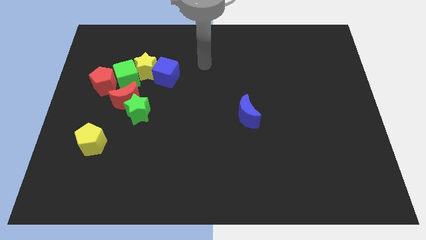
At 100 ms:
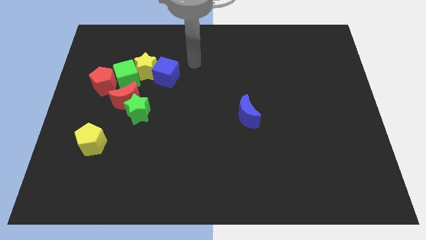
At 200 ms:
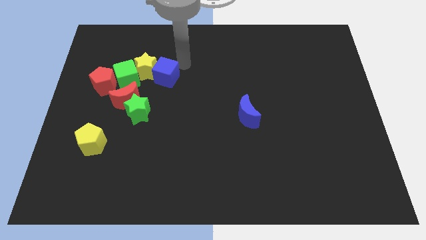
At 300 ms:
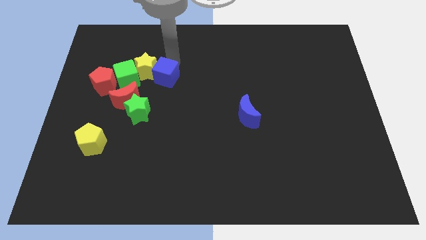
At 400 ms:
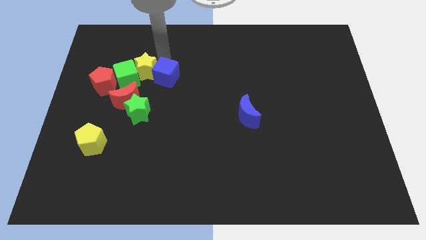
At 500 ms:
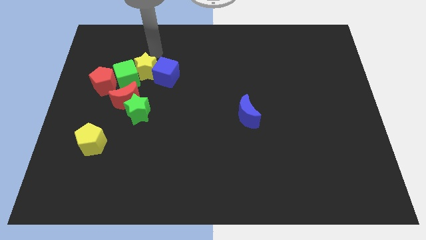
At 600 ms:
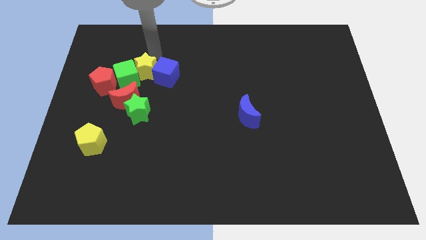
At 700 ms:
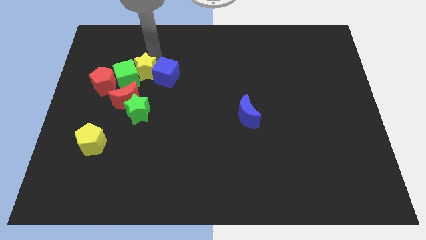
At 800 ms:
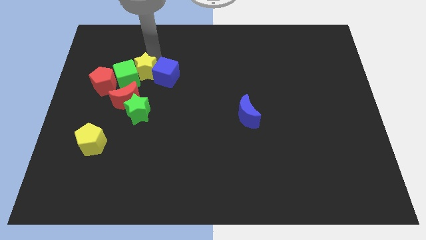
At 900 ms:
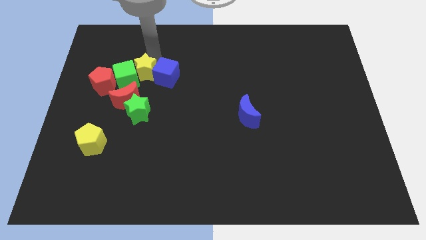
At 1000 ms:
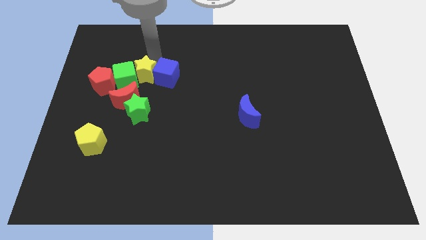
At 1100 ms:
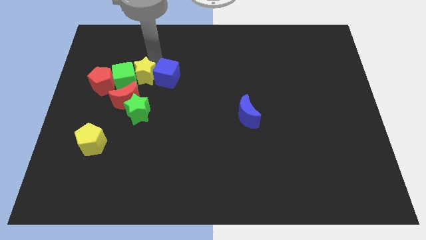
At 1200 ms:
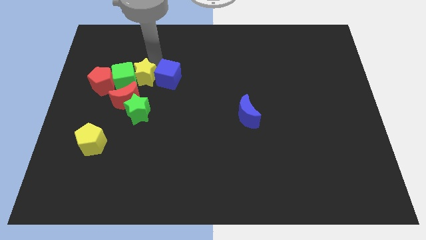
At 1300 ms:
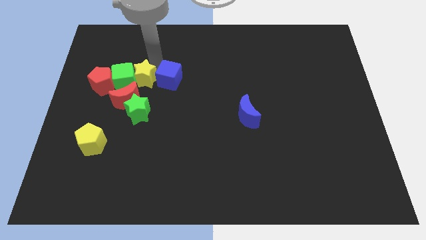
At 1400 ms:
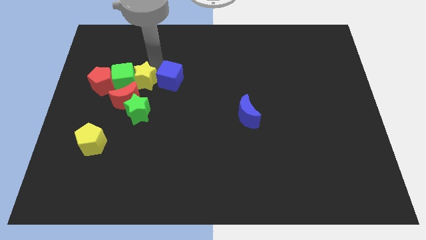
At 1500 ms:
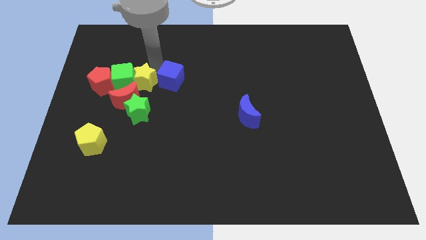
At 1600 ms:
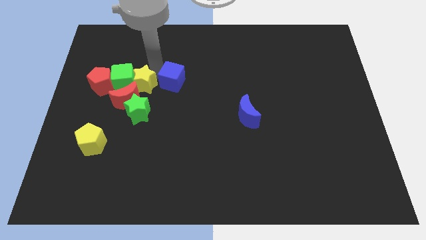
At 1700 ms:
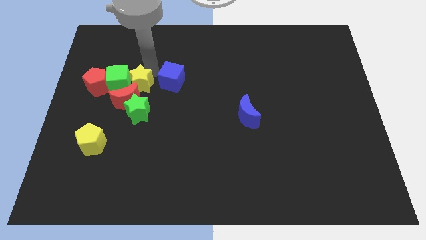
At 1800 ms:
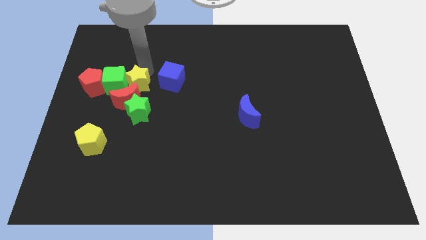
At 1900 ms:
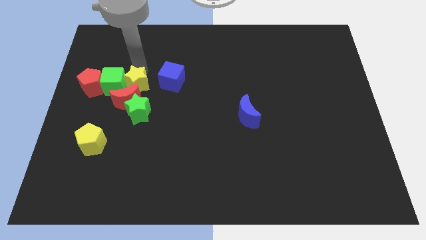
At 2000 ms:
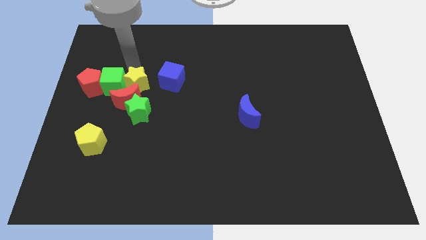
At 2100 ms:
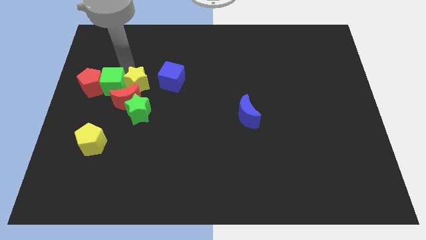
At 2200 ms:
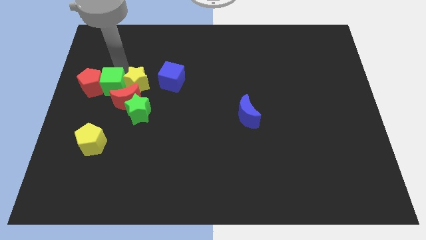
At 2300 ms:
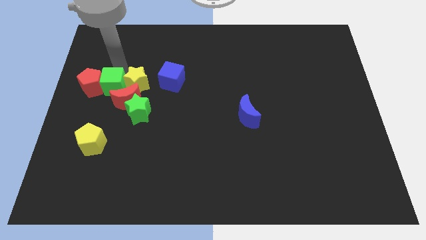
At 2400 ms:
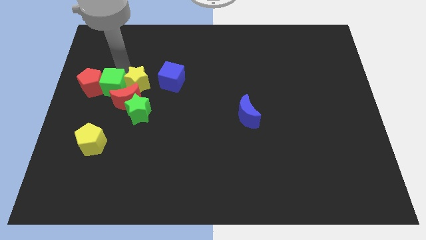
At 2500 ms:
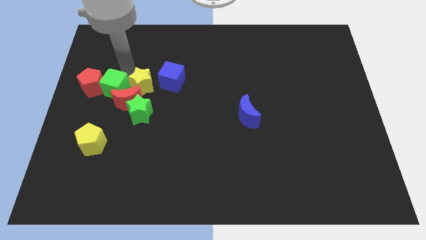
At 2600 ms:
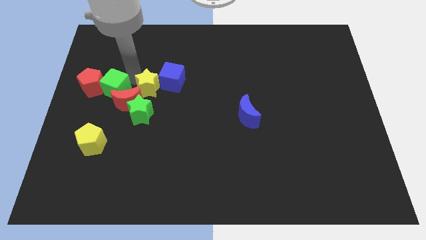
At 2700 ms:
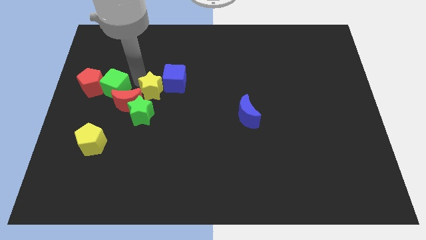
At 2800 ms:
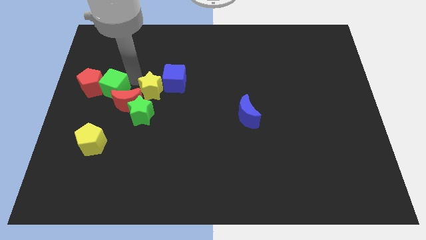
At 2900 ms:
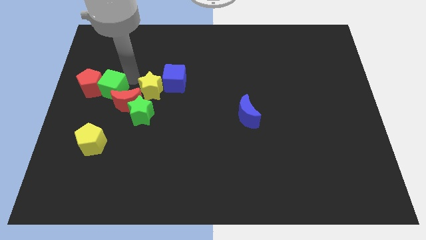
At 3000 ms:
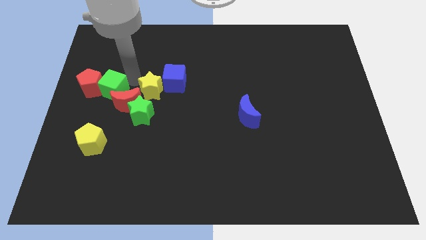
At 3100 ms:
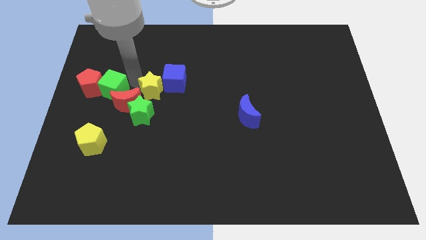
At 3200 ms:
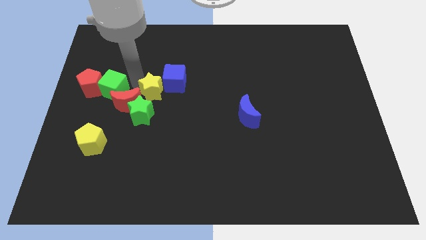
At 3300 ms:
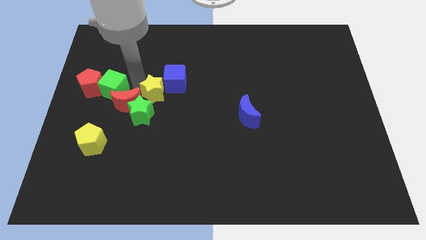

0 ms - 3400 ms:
slide the yellow star downwards and then to the right a little bit

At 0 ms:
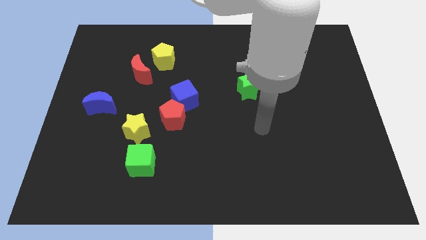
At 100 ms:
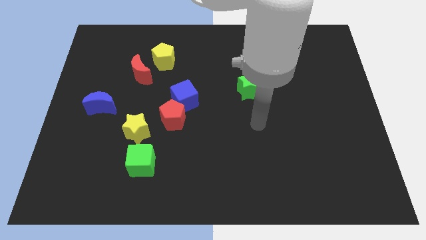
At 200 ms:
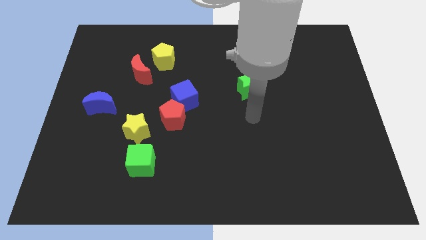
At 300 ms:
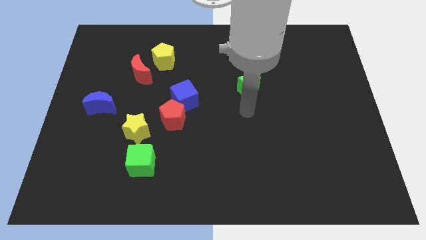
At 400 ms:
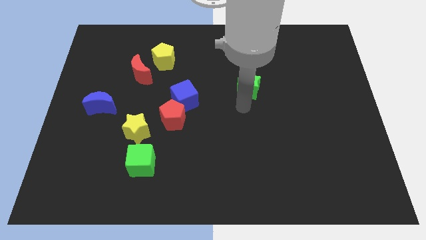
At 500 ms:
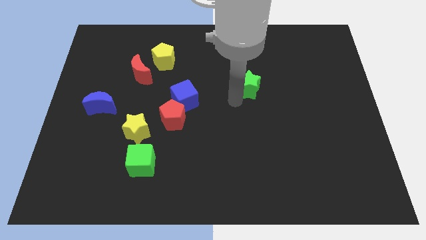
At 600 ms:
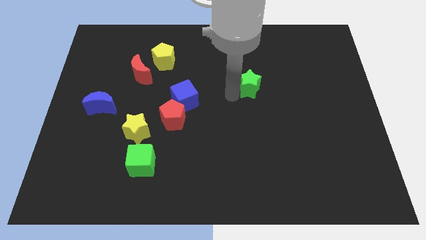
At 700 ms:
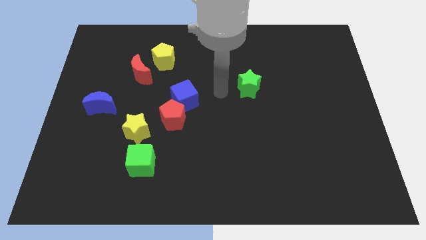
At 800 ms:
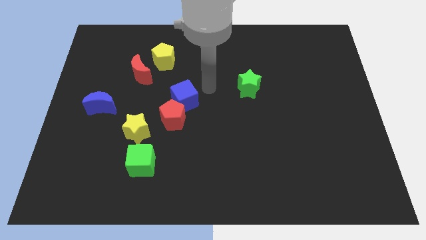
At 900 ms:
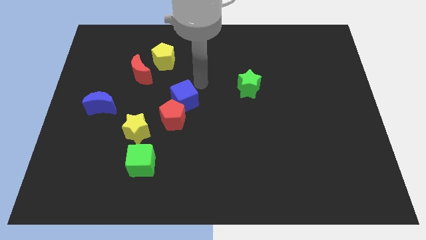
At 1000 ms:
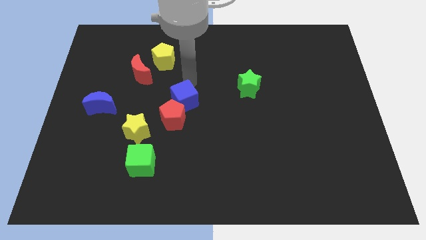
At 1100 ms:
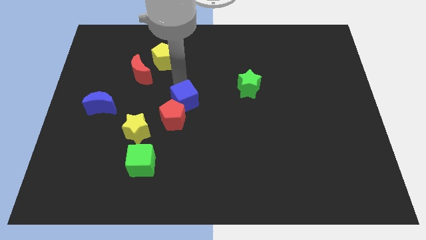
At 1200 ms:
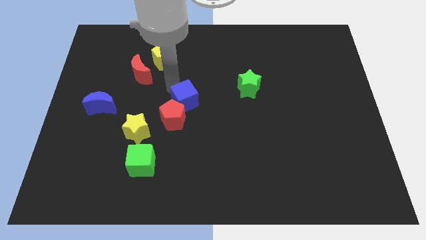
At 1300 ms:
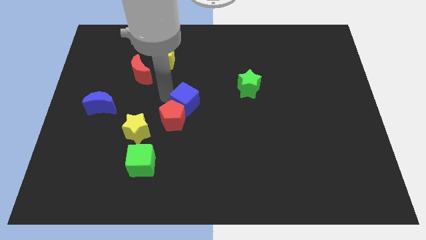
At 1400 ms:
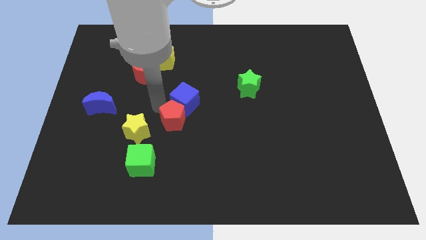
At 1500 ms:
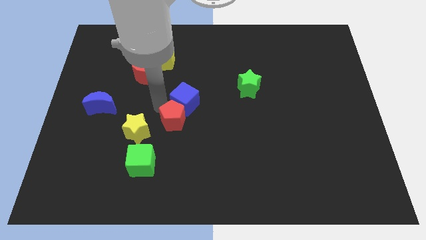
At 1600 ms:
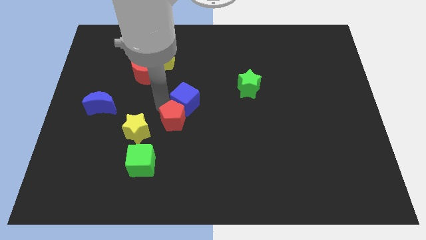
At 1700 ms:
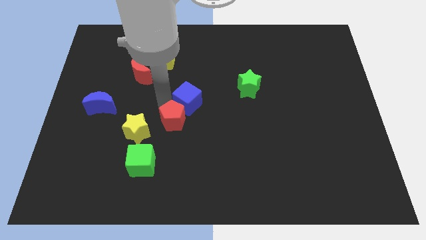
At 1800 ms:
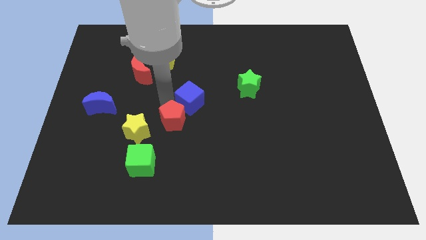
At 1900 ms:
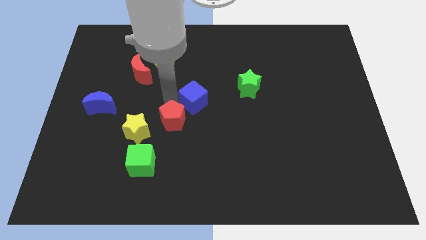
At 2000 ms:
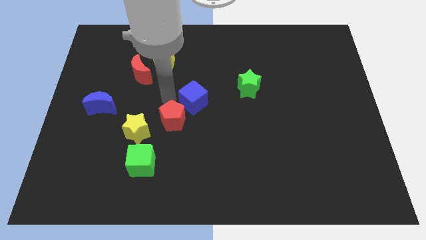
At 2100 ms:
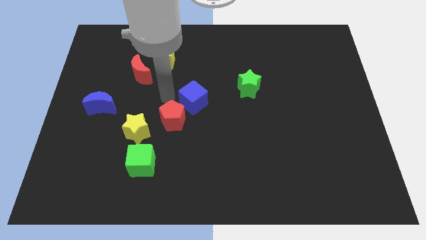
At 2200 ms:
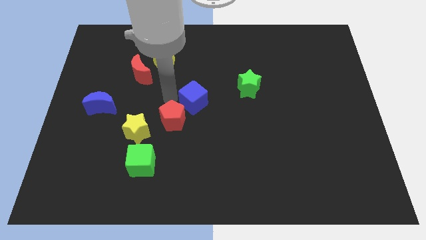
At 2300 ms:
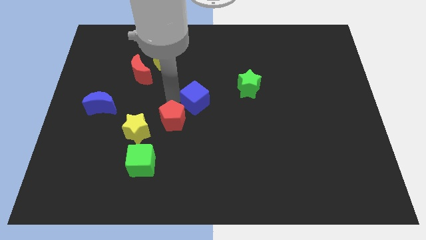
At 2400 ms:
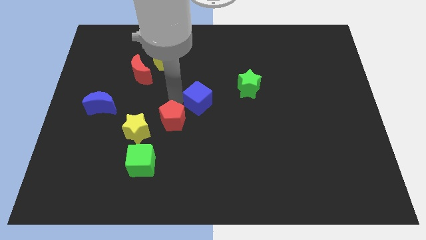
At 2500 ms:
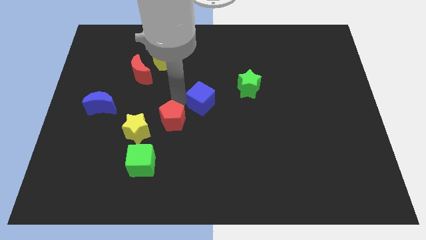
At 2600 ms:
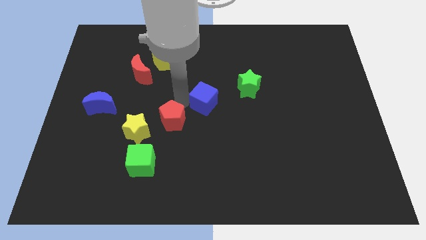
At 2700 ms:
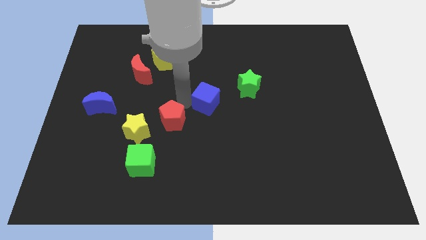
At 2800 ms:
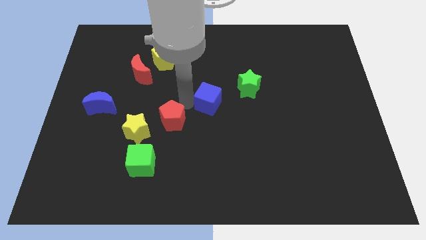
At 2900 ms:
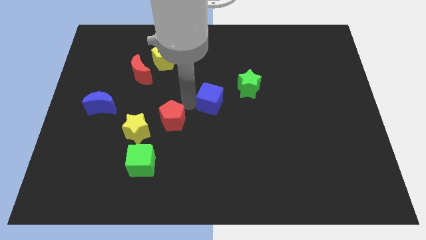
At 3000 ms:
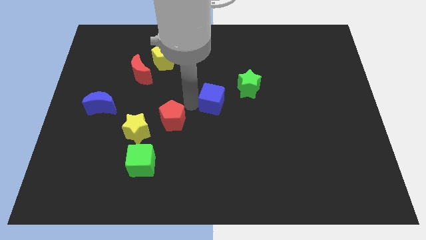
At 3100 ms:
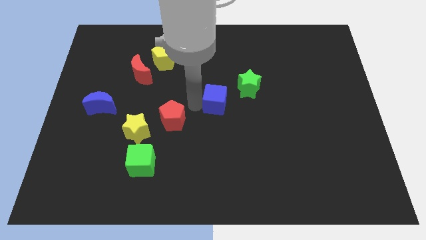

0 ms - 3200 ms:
push the blue cube a bit right

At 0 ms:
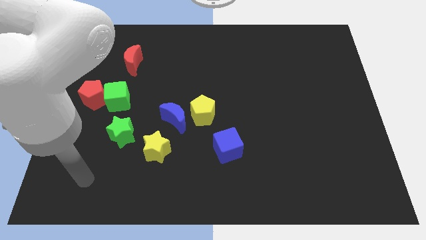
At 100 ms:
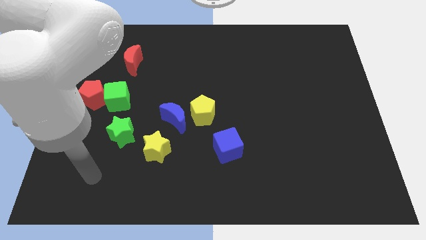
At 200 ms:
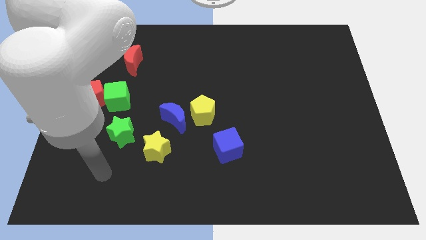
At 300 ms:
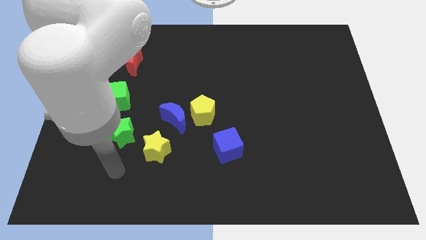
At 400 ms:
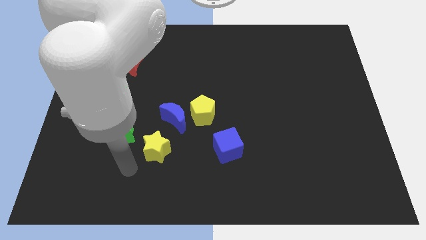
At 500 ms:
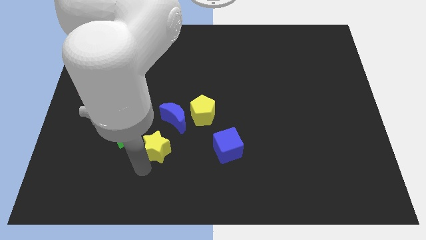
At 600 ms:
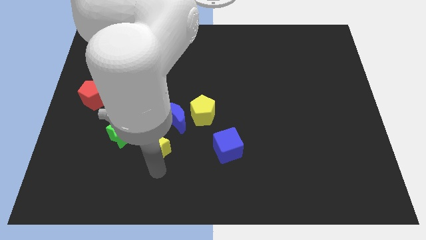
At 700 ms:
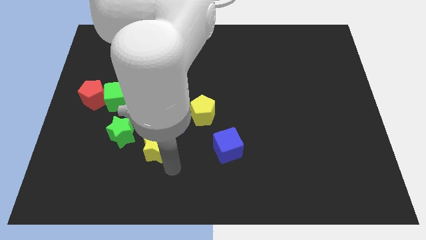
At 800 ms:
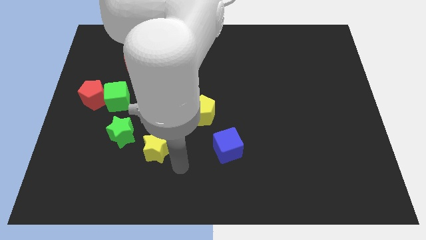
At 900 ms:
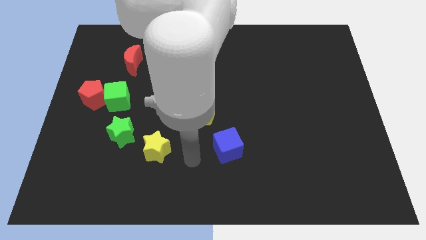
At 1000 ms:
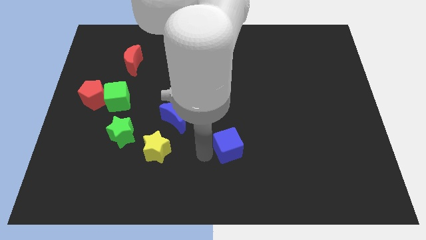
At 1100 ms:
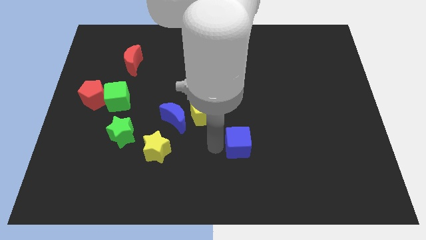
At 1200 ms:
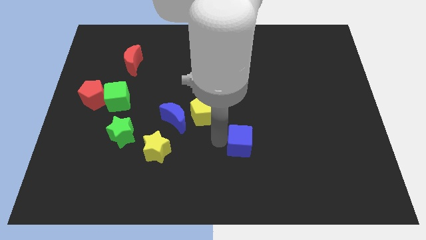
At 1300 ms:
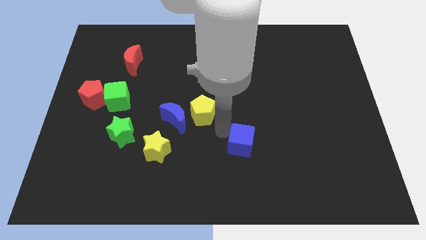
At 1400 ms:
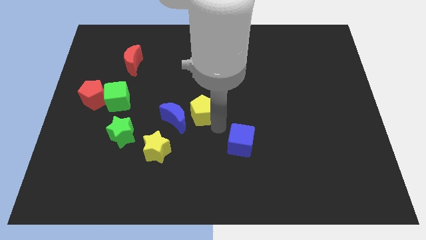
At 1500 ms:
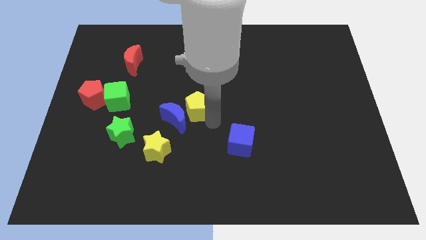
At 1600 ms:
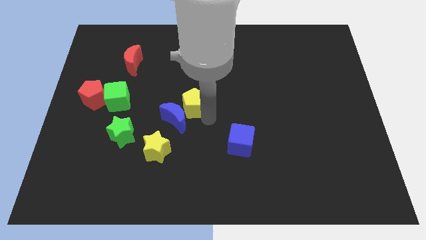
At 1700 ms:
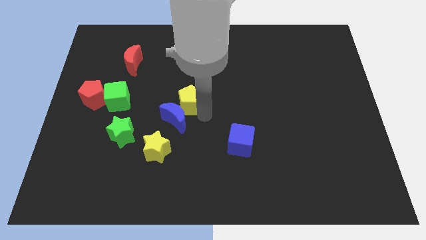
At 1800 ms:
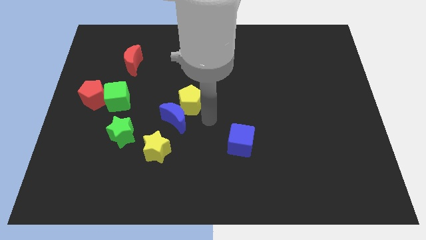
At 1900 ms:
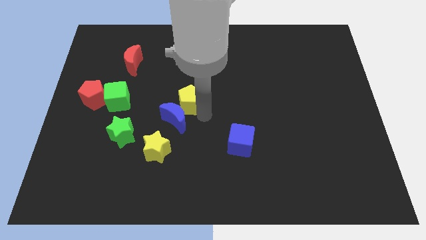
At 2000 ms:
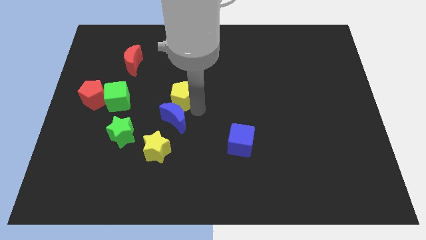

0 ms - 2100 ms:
slightly push the yellow pentagon diagonally up and to the left
